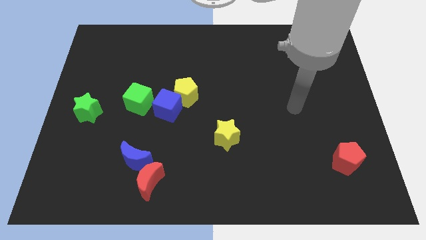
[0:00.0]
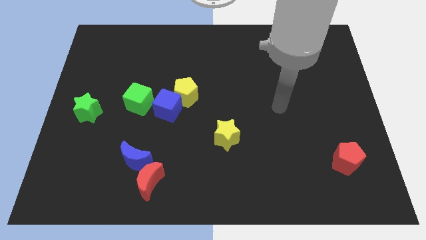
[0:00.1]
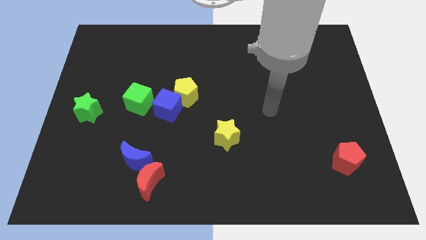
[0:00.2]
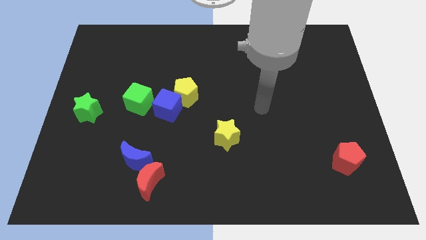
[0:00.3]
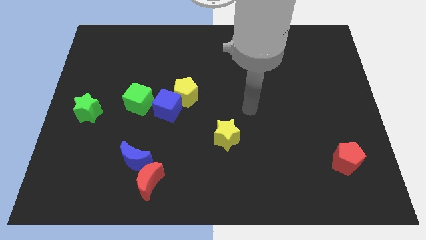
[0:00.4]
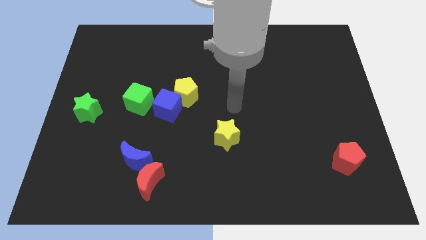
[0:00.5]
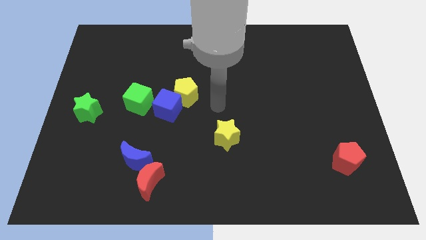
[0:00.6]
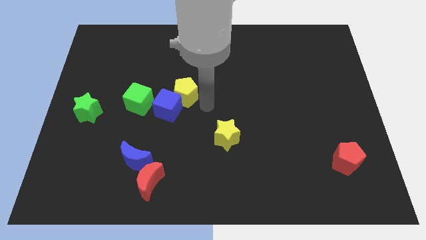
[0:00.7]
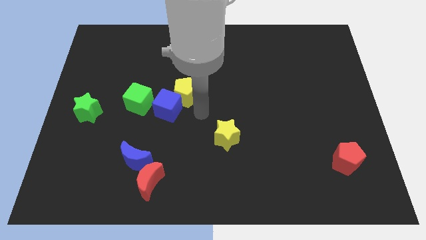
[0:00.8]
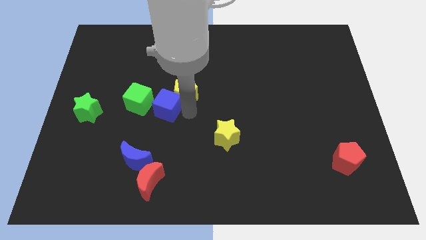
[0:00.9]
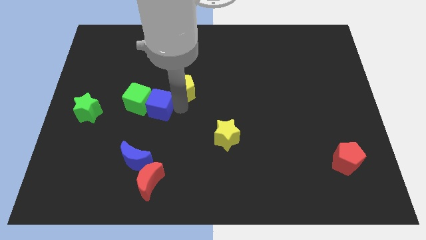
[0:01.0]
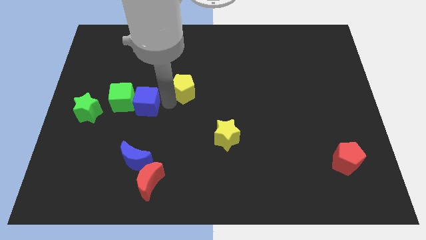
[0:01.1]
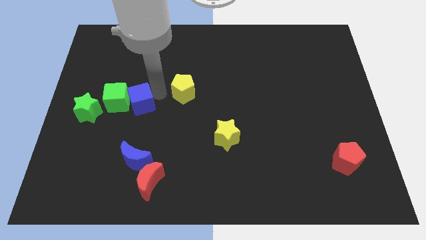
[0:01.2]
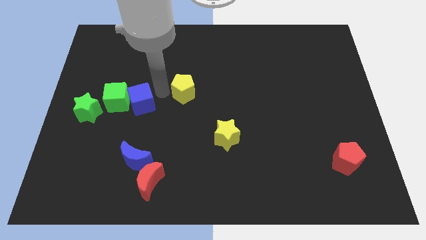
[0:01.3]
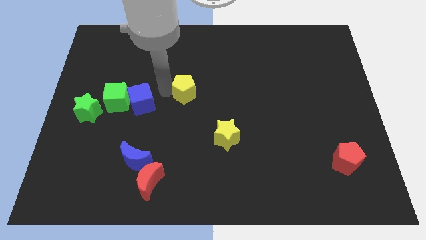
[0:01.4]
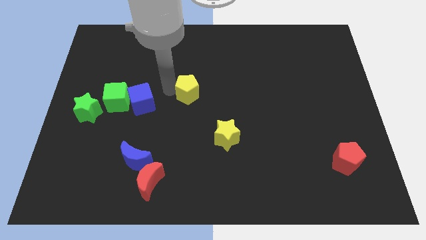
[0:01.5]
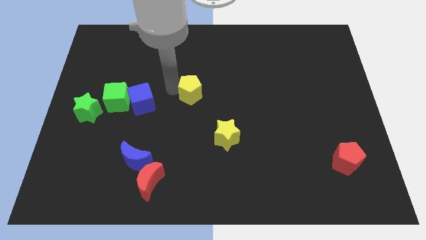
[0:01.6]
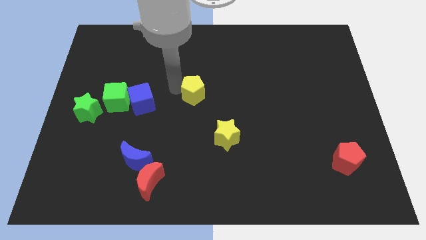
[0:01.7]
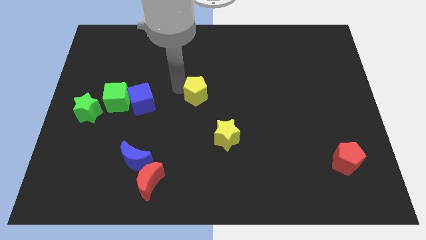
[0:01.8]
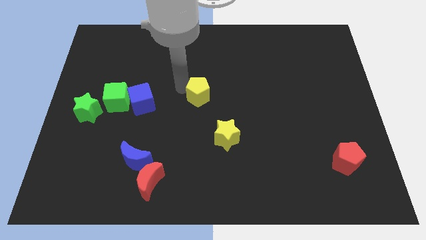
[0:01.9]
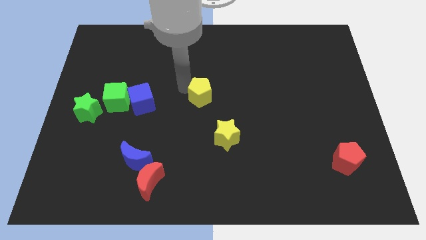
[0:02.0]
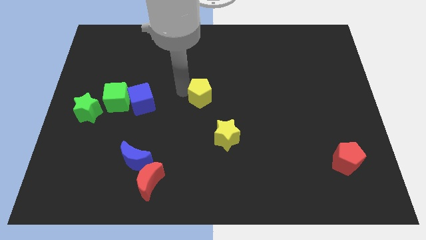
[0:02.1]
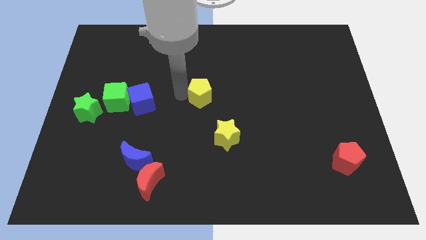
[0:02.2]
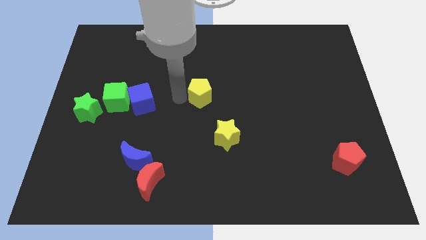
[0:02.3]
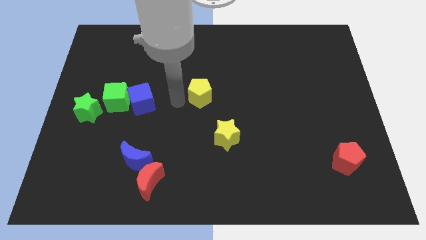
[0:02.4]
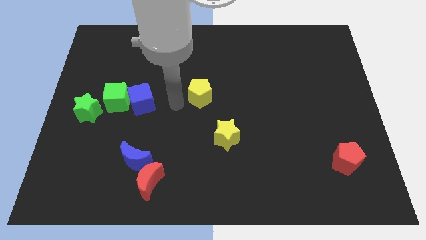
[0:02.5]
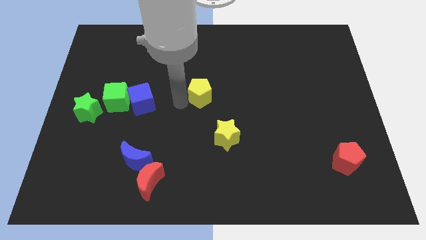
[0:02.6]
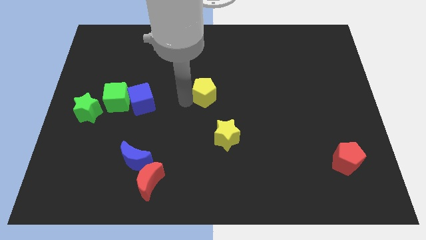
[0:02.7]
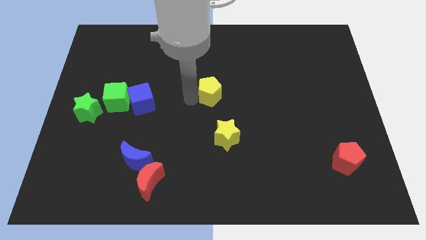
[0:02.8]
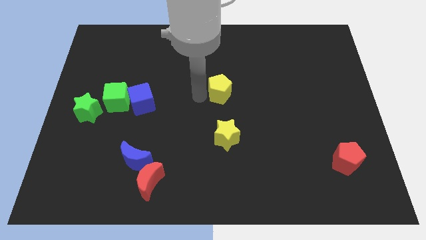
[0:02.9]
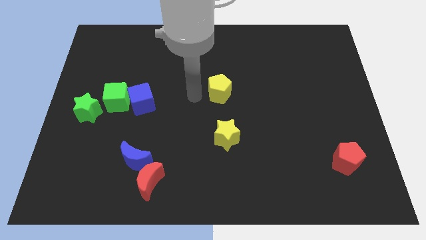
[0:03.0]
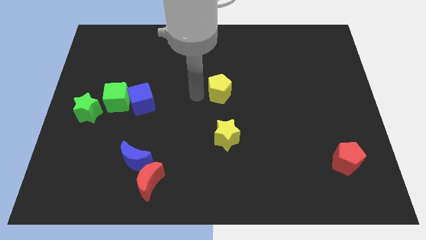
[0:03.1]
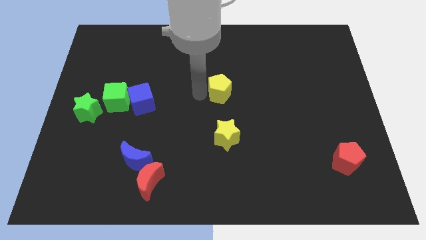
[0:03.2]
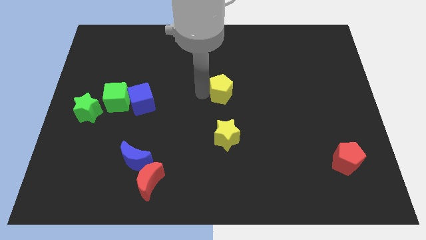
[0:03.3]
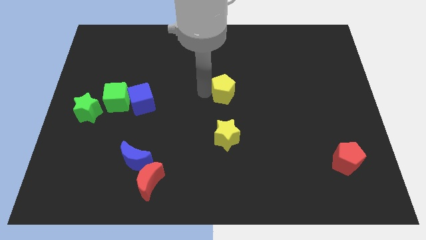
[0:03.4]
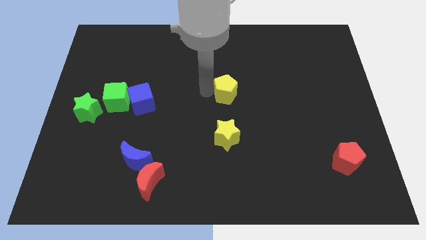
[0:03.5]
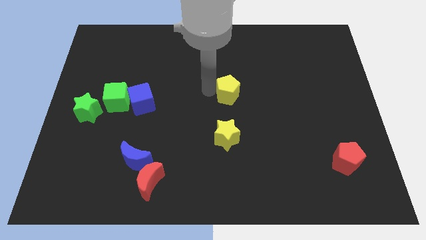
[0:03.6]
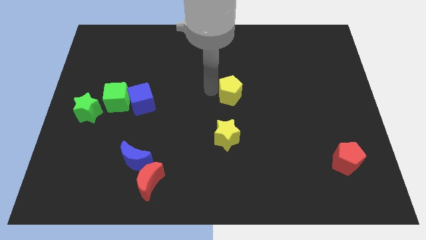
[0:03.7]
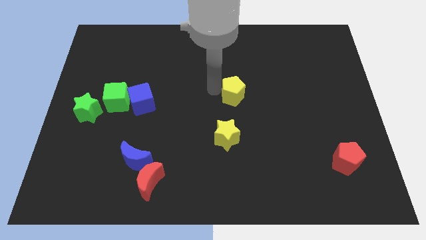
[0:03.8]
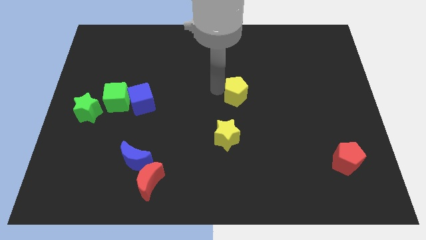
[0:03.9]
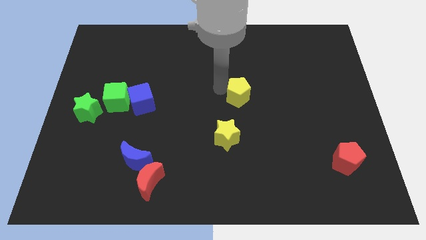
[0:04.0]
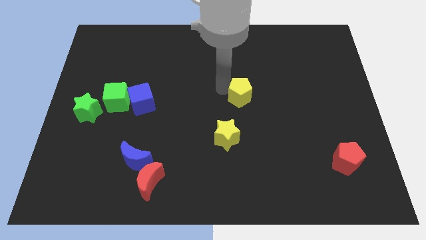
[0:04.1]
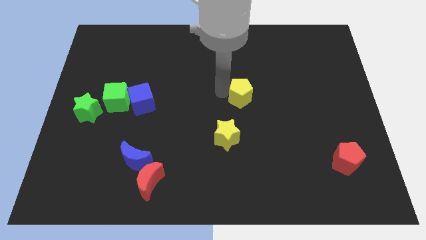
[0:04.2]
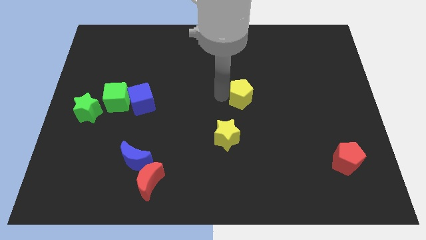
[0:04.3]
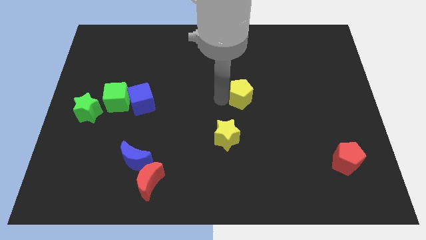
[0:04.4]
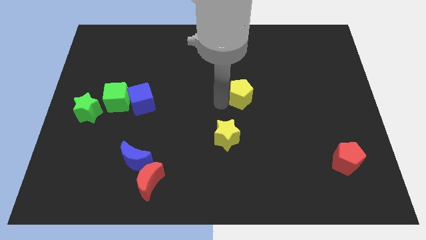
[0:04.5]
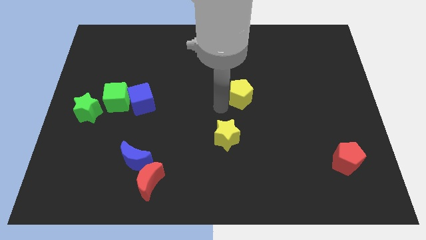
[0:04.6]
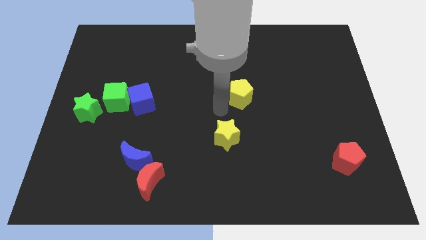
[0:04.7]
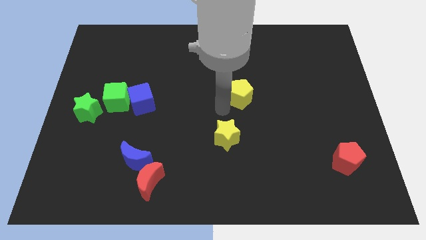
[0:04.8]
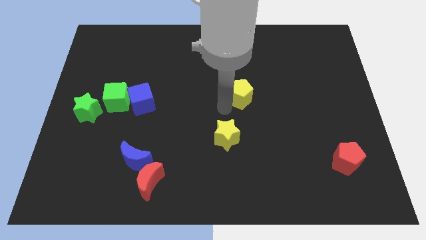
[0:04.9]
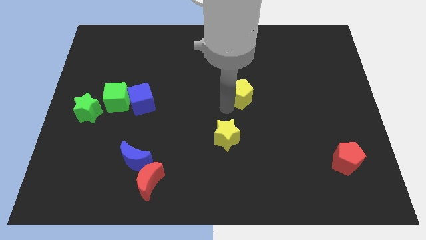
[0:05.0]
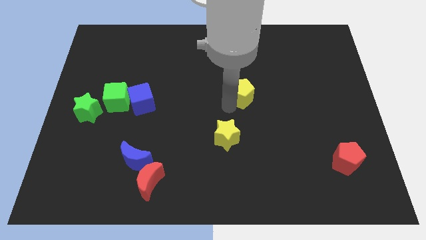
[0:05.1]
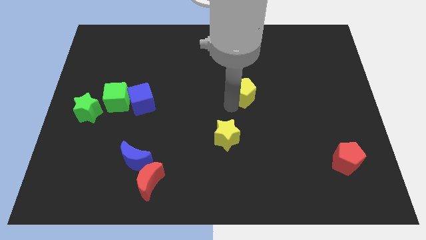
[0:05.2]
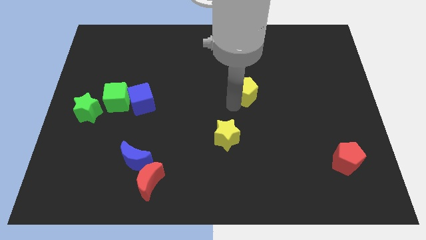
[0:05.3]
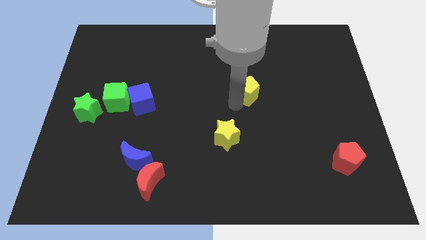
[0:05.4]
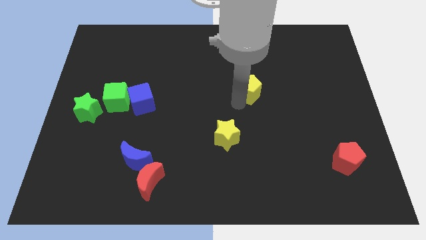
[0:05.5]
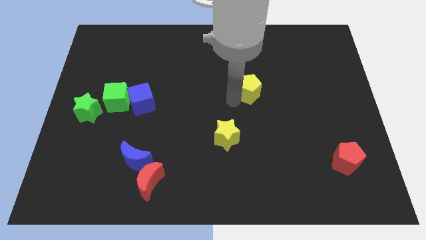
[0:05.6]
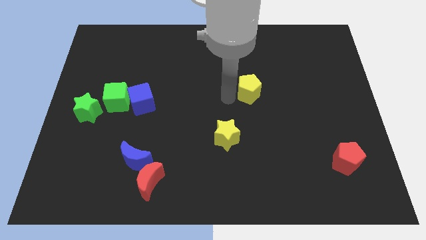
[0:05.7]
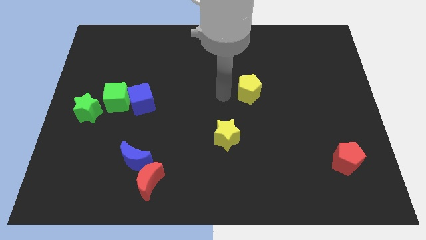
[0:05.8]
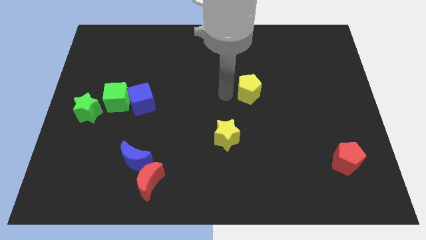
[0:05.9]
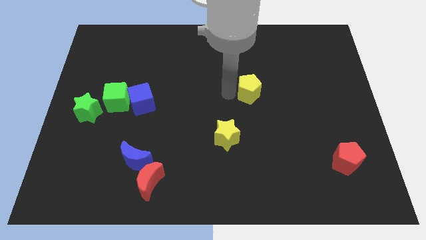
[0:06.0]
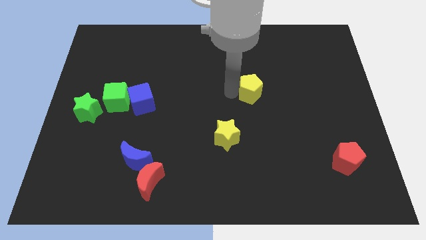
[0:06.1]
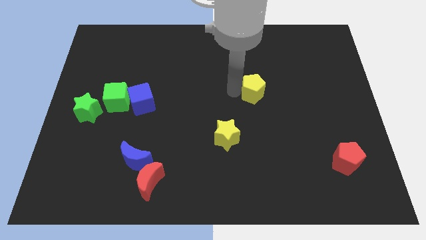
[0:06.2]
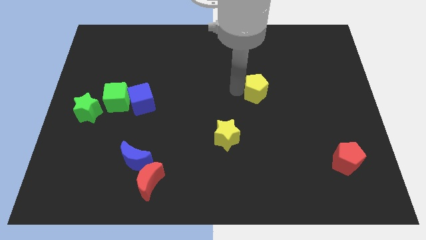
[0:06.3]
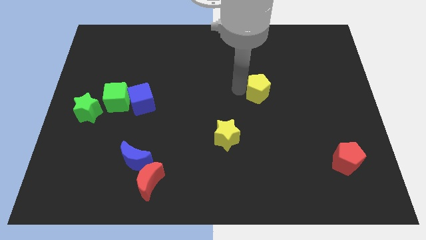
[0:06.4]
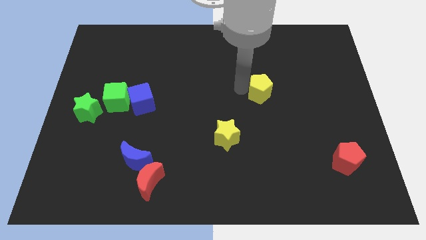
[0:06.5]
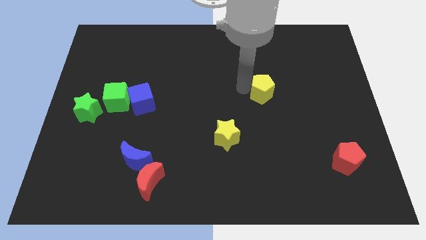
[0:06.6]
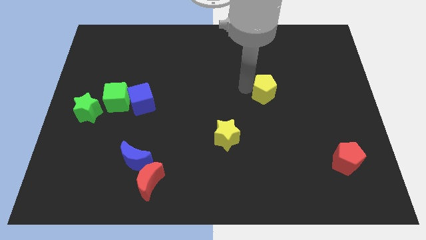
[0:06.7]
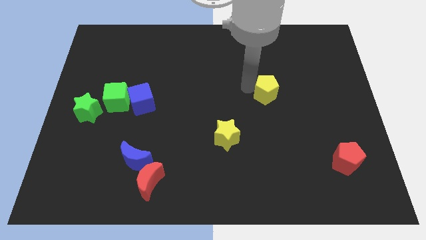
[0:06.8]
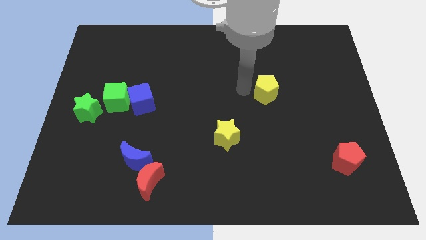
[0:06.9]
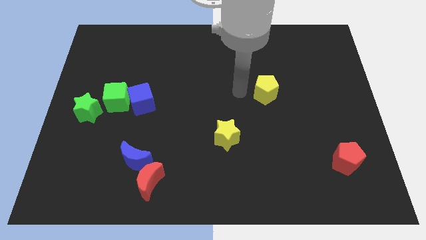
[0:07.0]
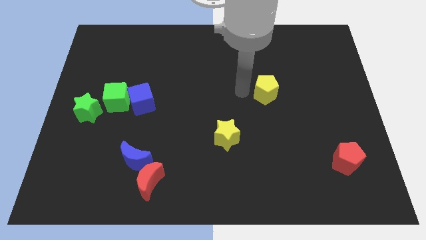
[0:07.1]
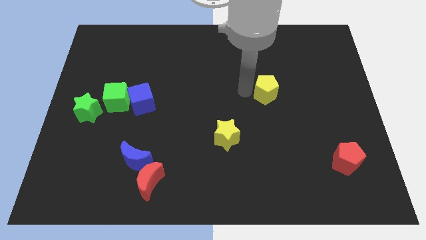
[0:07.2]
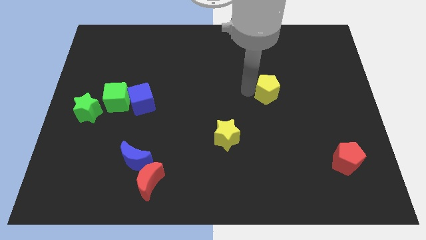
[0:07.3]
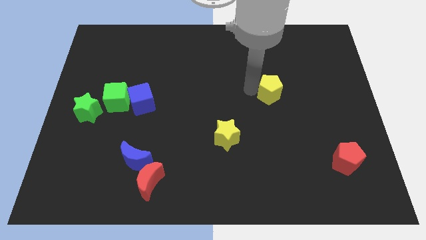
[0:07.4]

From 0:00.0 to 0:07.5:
move the yellow pentagon right

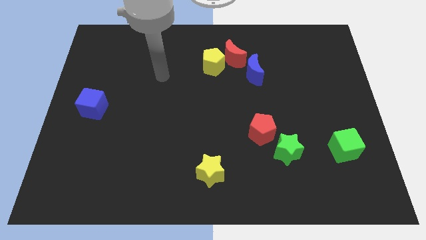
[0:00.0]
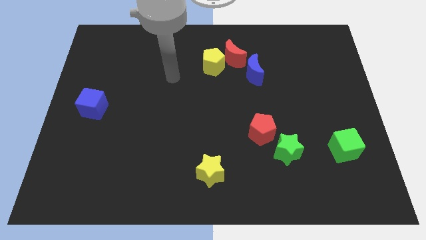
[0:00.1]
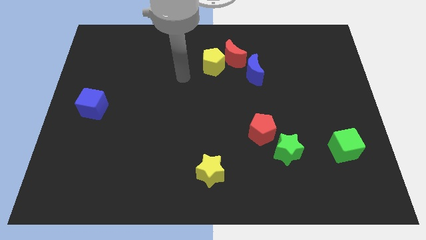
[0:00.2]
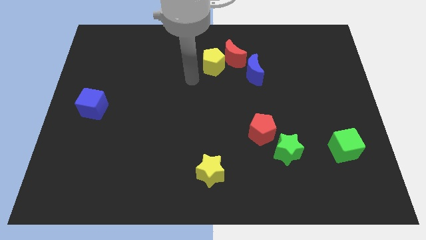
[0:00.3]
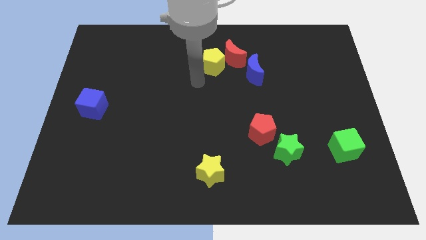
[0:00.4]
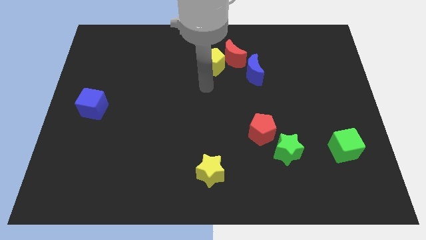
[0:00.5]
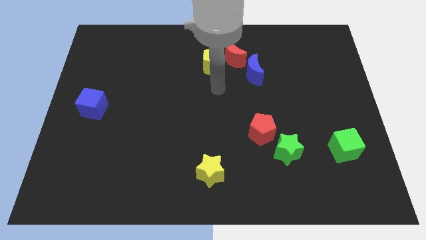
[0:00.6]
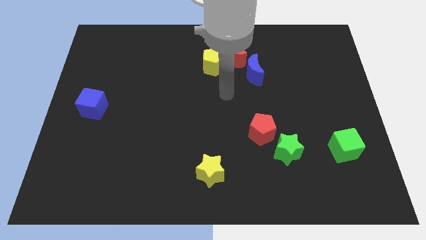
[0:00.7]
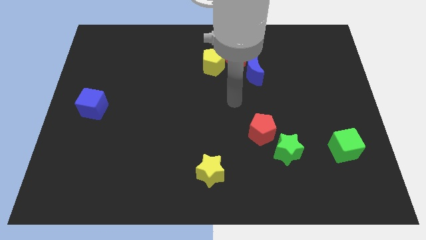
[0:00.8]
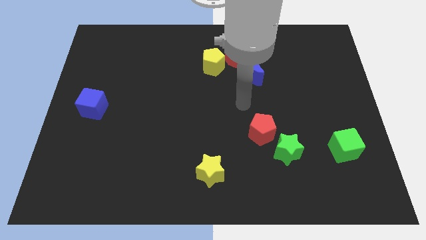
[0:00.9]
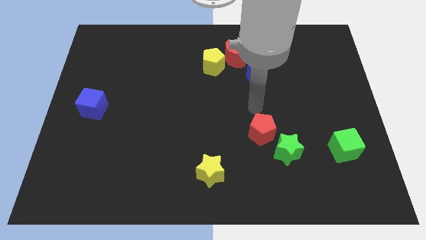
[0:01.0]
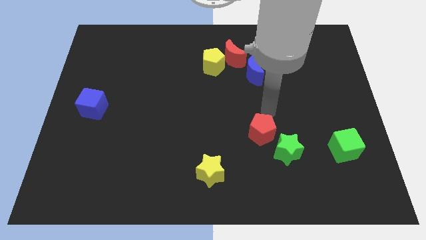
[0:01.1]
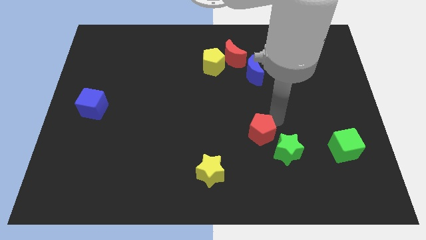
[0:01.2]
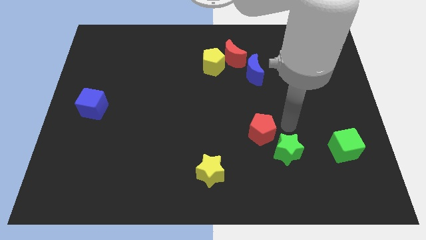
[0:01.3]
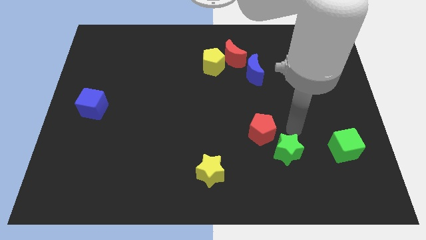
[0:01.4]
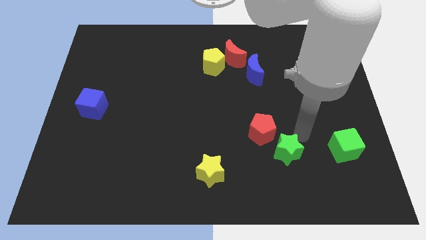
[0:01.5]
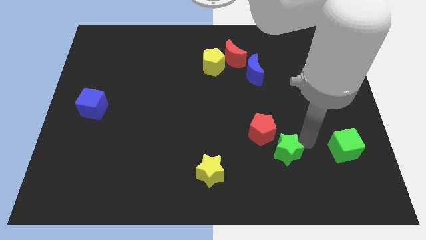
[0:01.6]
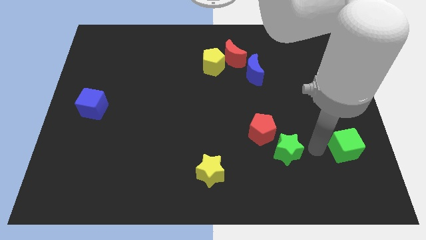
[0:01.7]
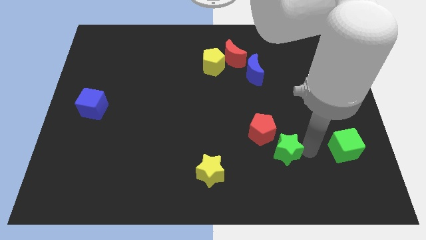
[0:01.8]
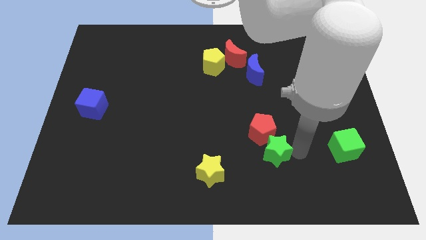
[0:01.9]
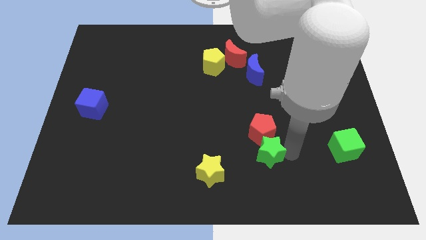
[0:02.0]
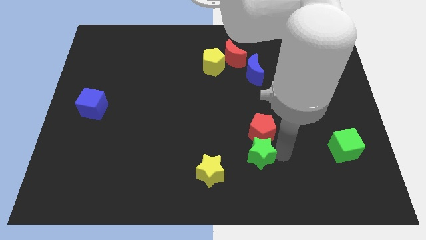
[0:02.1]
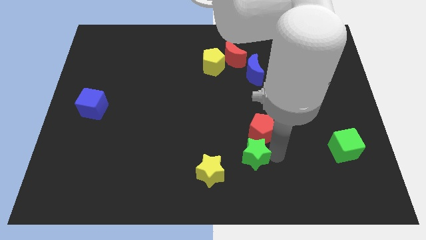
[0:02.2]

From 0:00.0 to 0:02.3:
move the green star a little to the left
